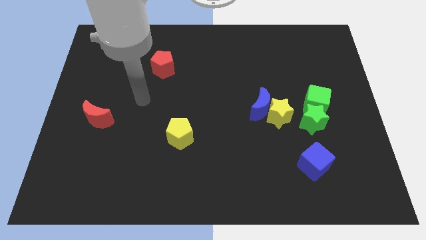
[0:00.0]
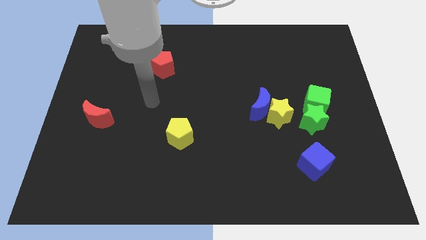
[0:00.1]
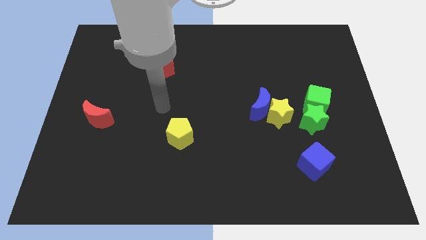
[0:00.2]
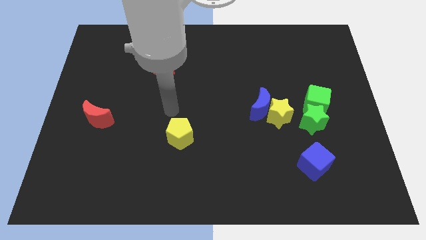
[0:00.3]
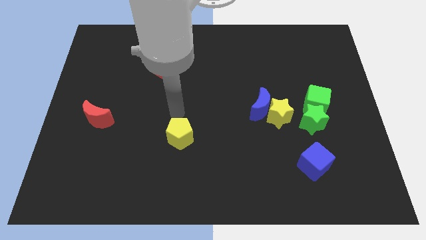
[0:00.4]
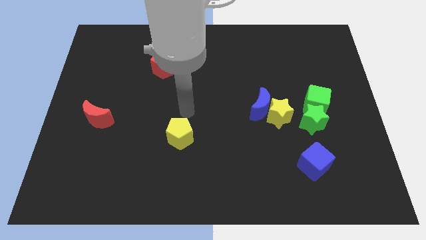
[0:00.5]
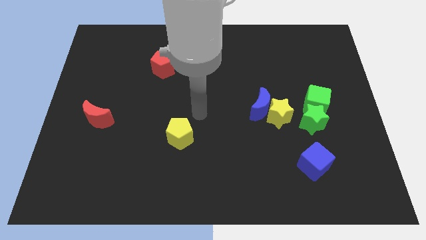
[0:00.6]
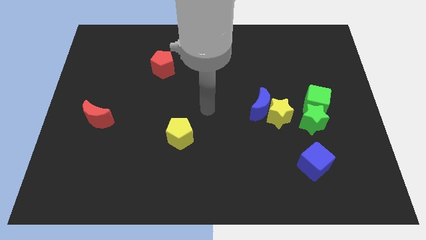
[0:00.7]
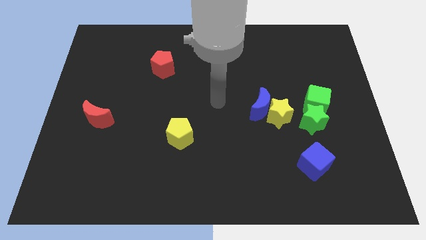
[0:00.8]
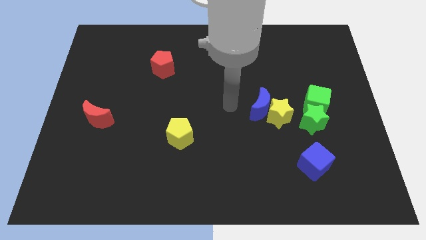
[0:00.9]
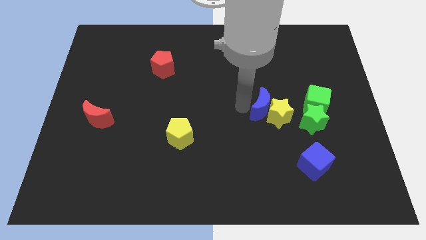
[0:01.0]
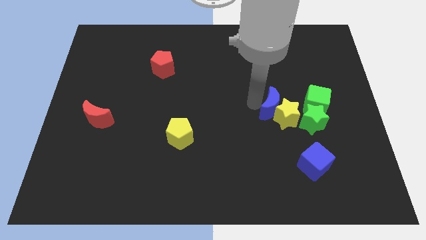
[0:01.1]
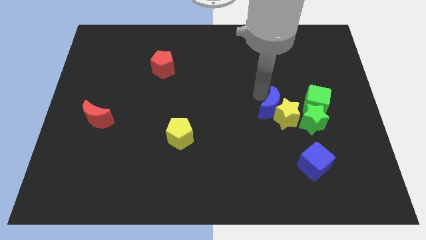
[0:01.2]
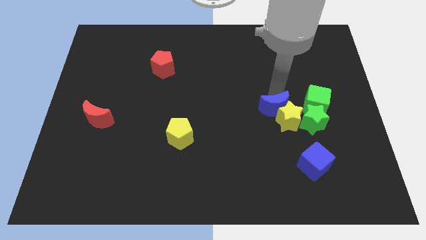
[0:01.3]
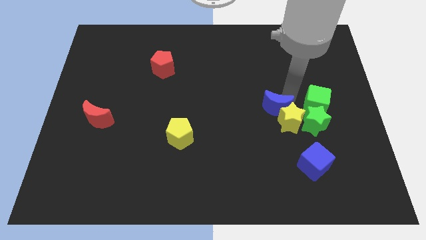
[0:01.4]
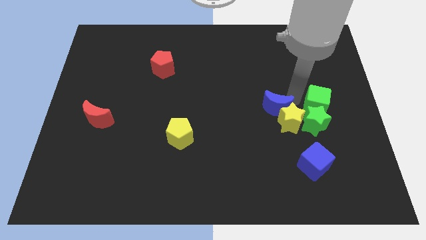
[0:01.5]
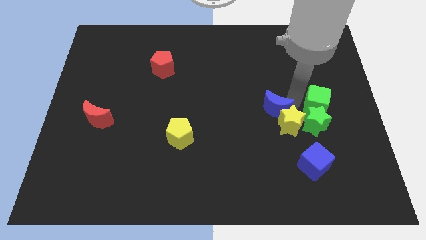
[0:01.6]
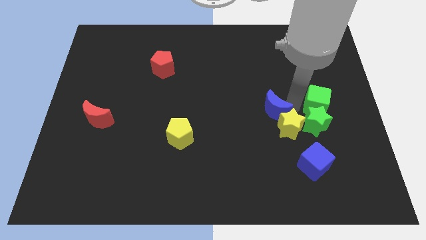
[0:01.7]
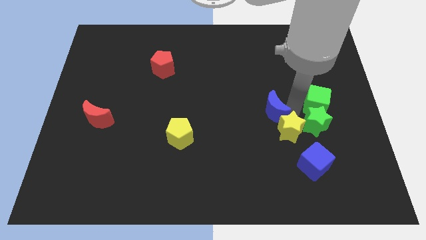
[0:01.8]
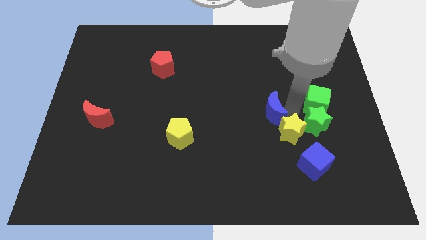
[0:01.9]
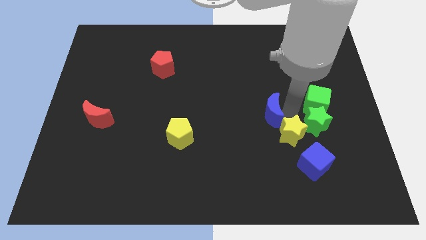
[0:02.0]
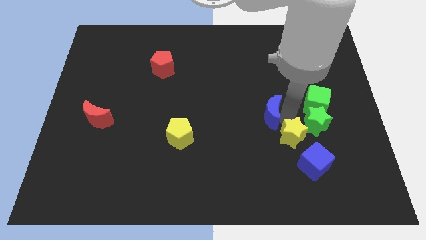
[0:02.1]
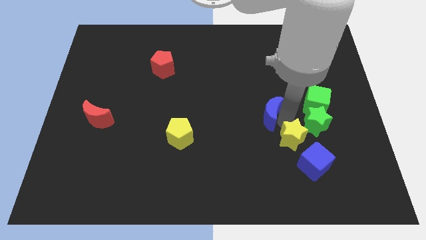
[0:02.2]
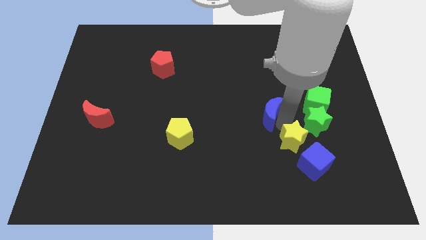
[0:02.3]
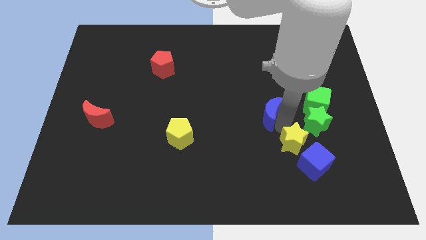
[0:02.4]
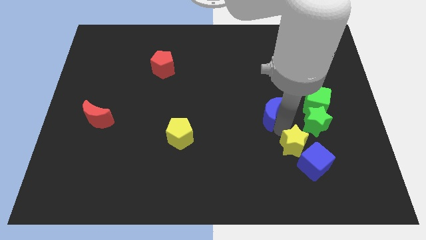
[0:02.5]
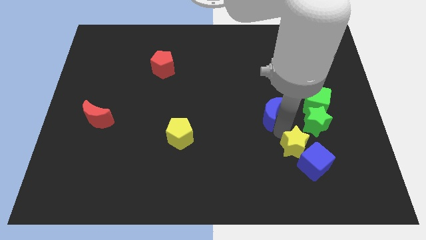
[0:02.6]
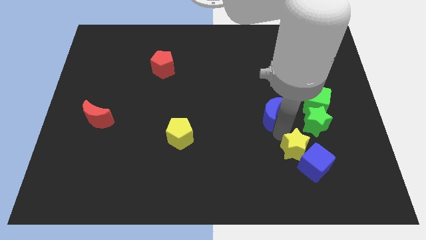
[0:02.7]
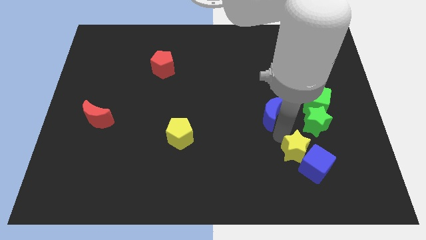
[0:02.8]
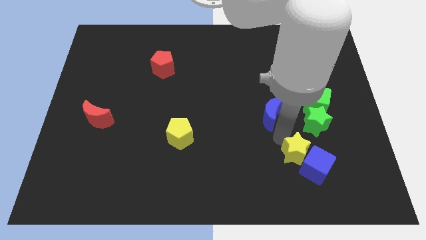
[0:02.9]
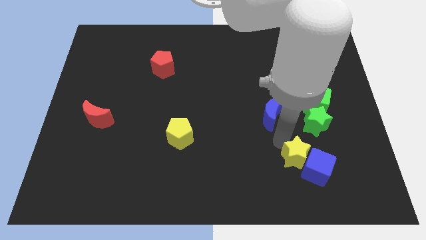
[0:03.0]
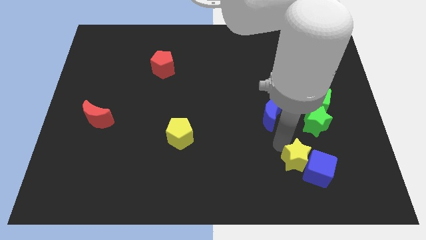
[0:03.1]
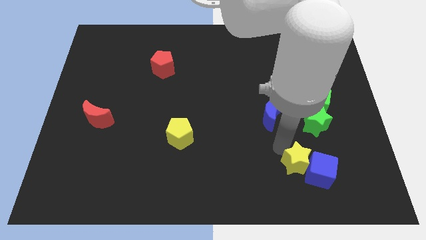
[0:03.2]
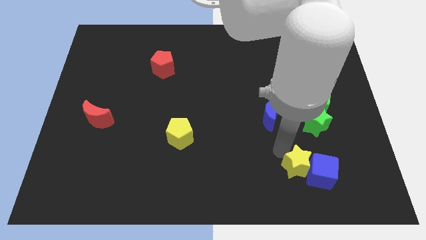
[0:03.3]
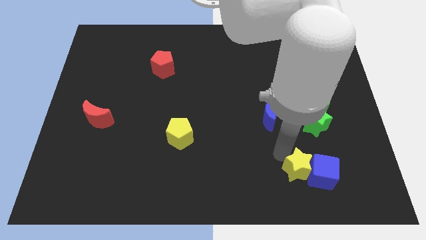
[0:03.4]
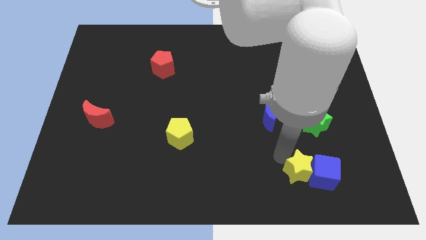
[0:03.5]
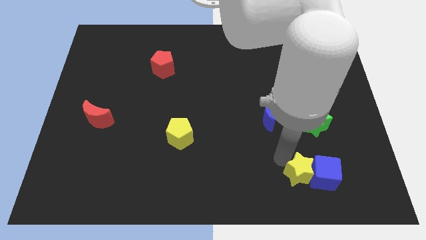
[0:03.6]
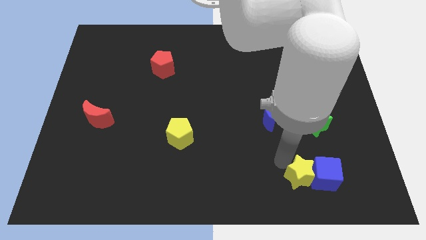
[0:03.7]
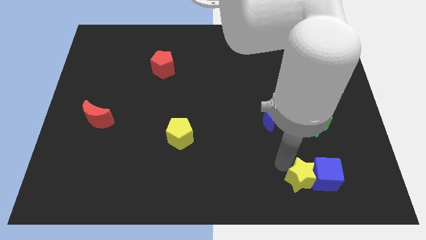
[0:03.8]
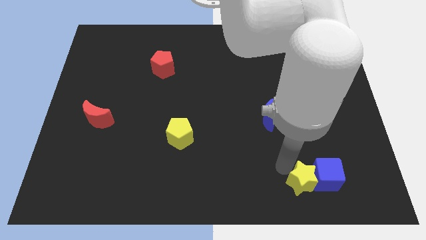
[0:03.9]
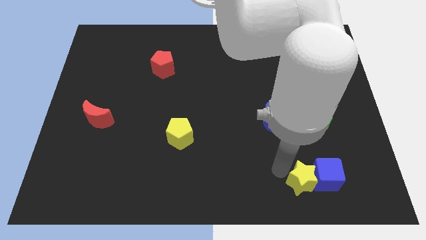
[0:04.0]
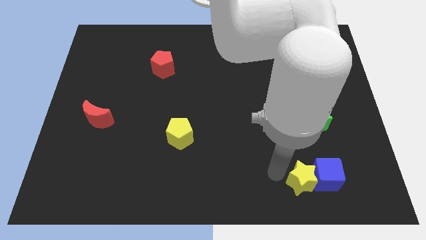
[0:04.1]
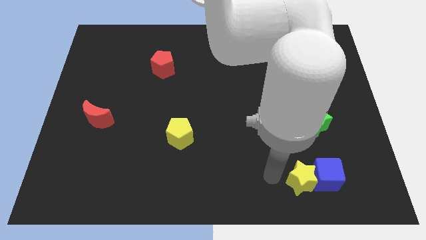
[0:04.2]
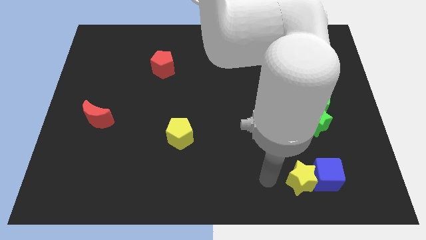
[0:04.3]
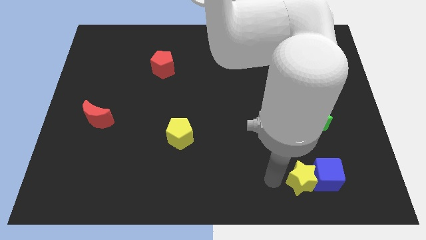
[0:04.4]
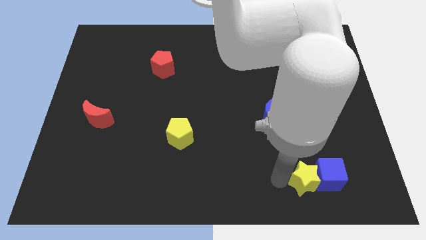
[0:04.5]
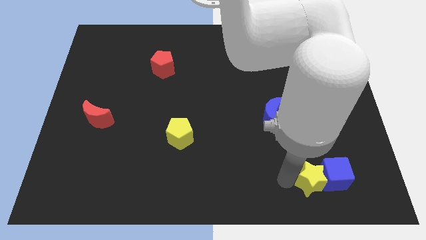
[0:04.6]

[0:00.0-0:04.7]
put the yellow star to the bottom of the green star

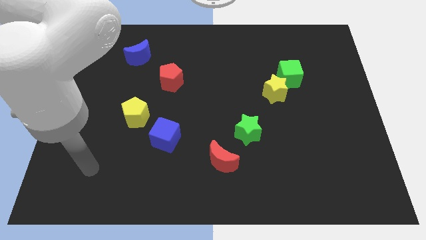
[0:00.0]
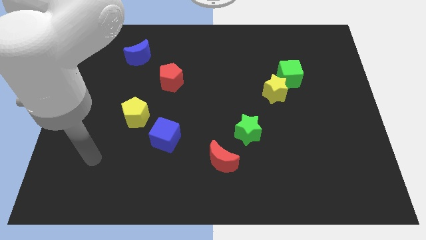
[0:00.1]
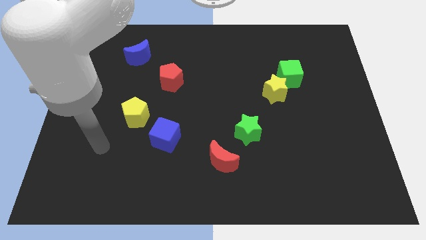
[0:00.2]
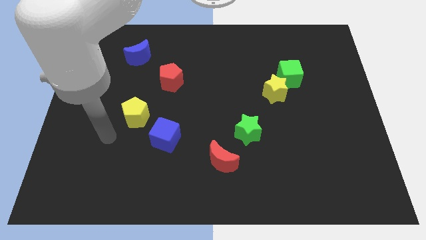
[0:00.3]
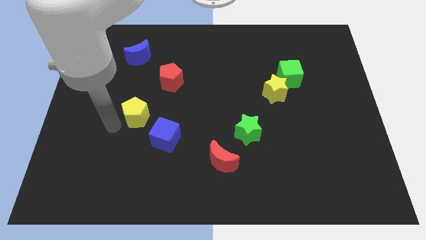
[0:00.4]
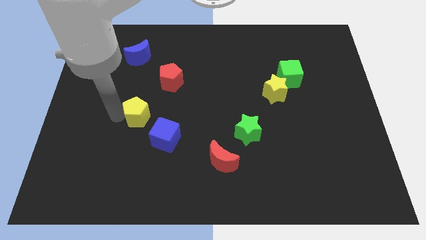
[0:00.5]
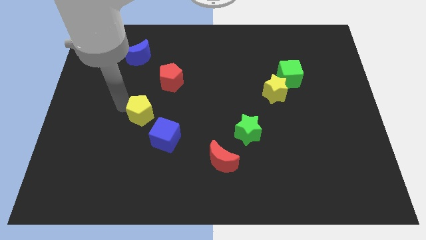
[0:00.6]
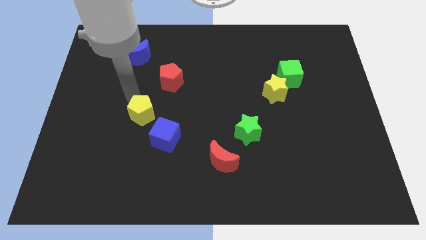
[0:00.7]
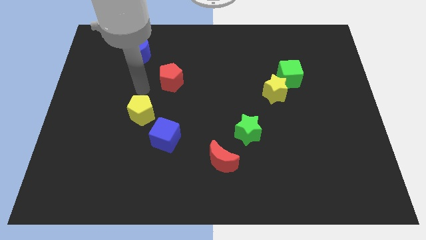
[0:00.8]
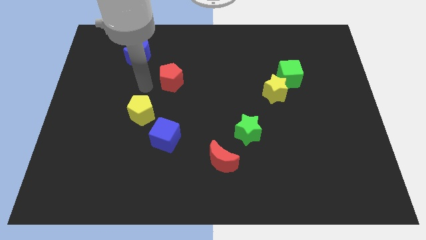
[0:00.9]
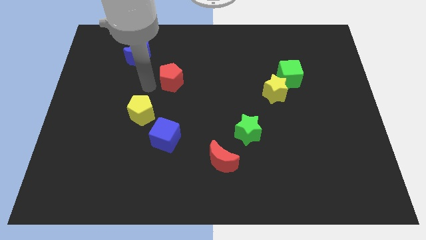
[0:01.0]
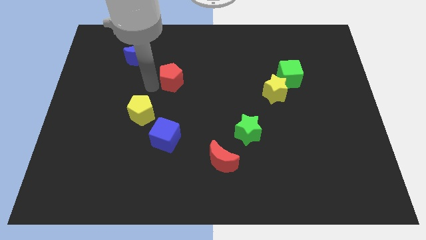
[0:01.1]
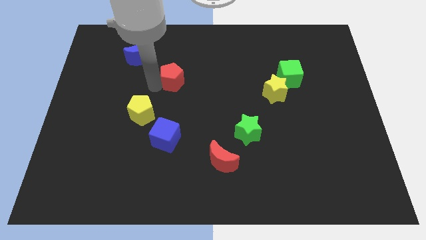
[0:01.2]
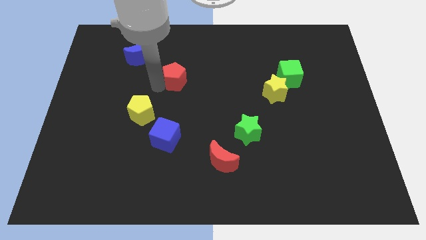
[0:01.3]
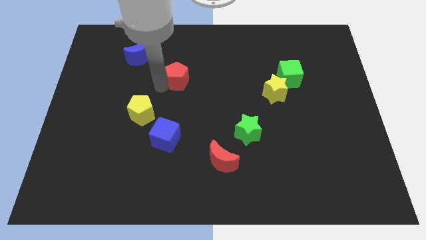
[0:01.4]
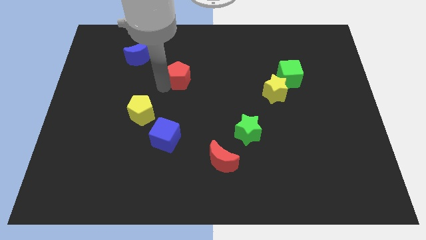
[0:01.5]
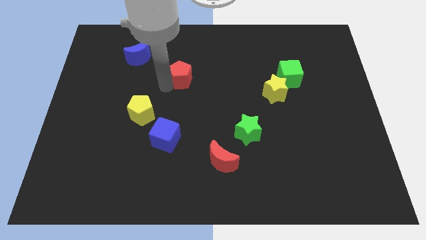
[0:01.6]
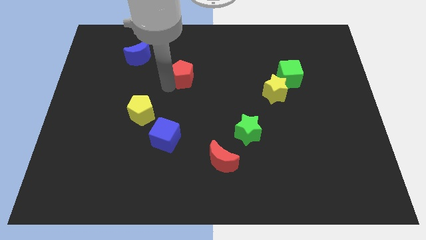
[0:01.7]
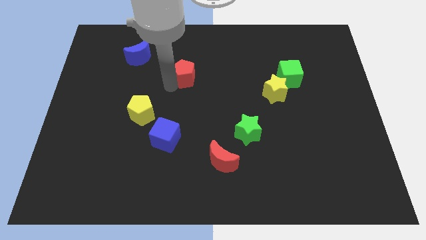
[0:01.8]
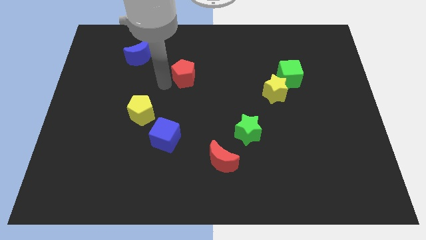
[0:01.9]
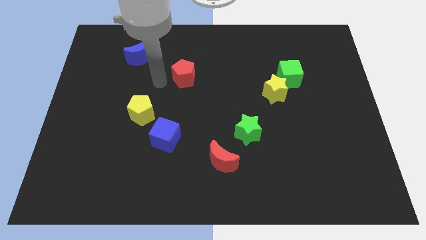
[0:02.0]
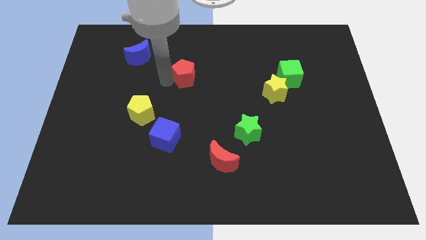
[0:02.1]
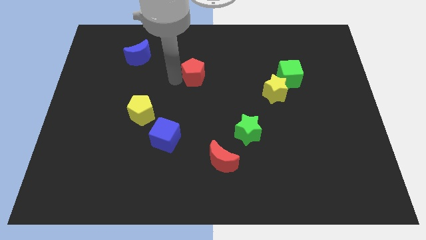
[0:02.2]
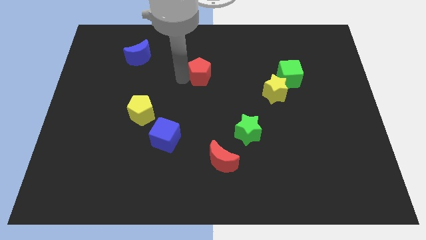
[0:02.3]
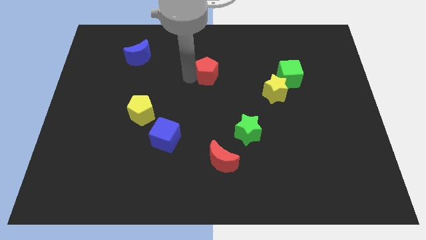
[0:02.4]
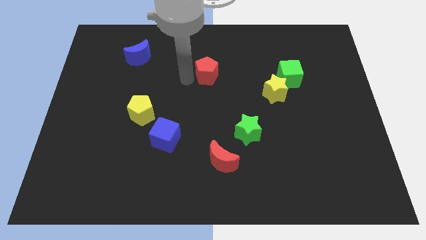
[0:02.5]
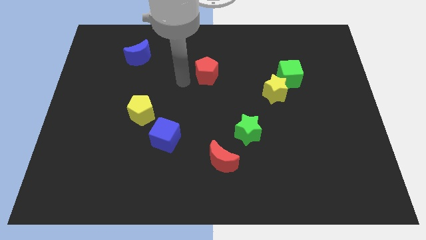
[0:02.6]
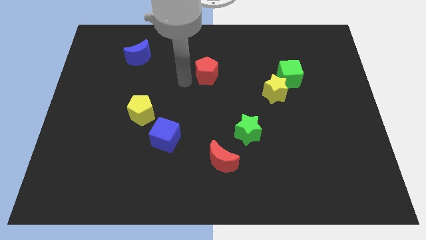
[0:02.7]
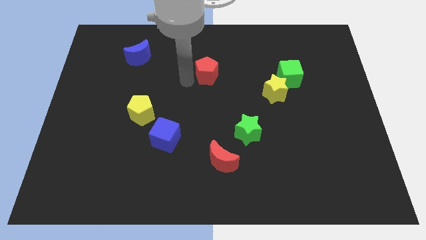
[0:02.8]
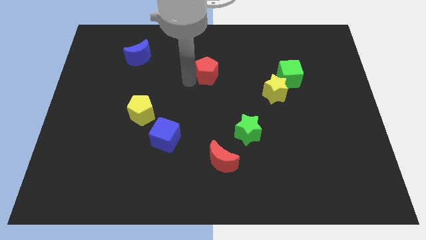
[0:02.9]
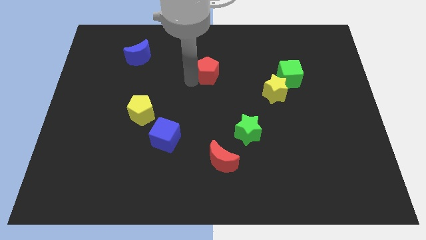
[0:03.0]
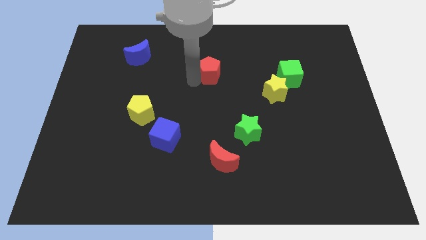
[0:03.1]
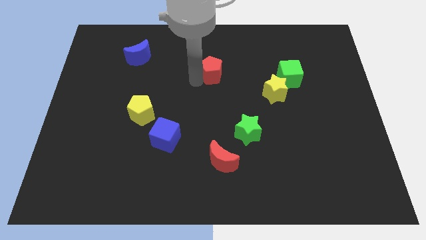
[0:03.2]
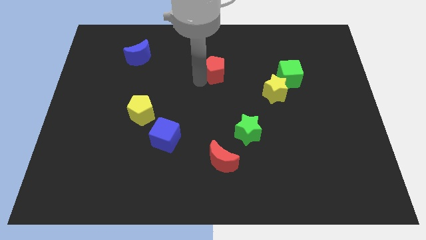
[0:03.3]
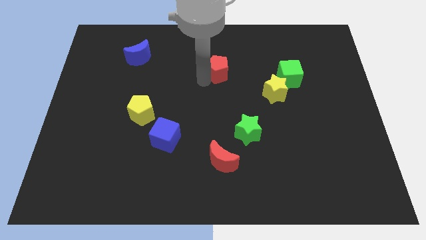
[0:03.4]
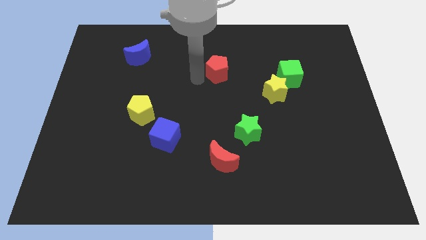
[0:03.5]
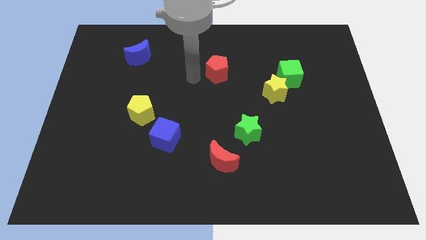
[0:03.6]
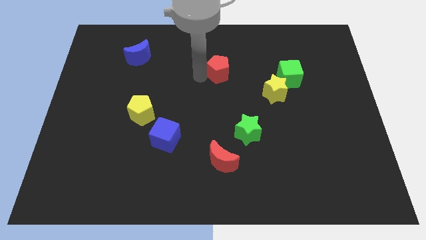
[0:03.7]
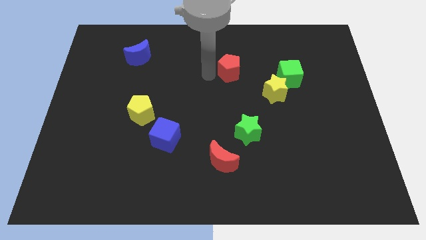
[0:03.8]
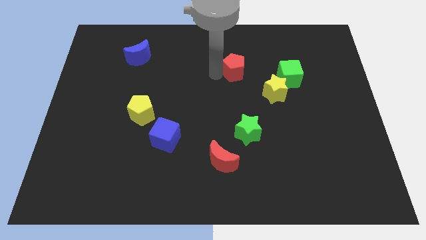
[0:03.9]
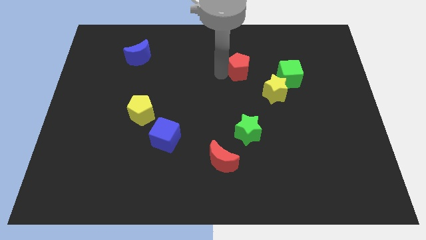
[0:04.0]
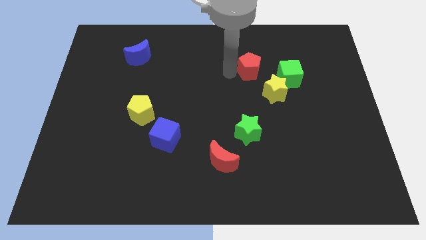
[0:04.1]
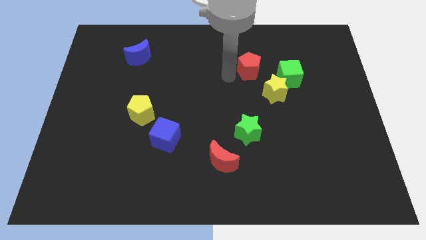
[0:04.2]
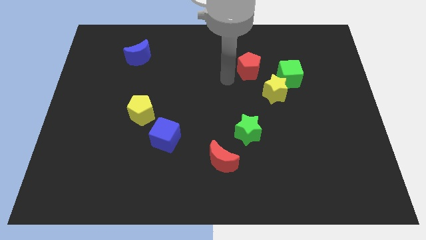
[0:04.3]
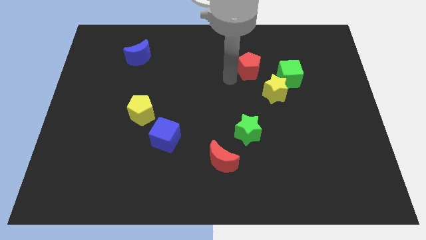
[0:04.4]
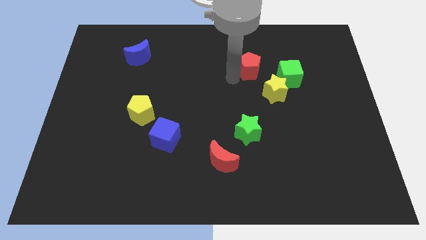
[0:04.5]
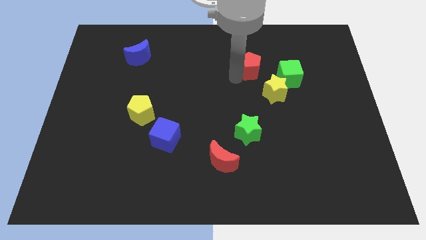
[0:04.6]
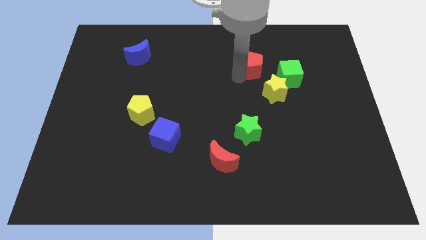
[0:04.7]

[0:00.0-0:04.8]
push the red pentagon diagonally up and to the left of the green cube
